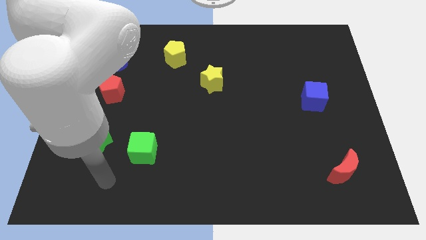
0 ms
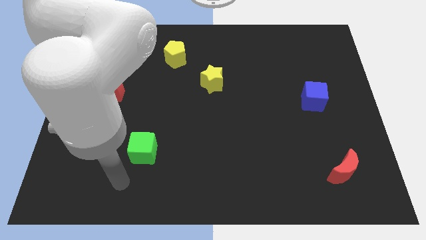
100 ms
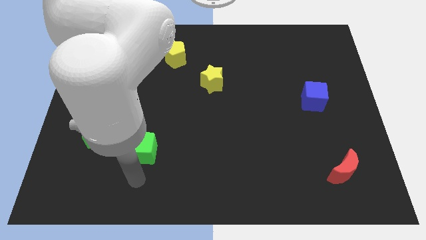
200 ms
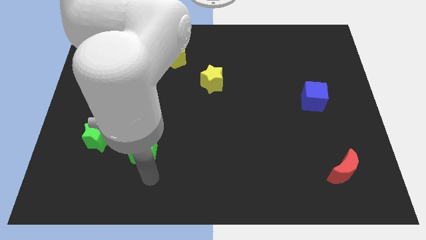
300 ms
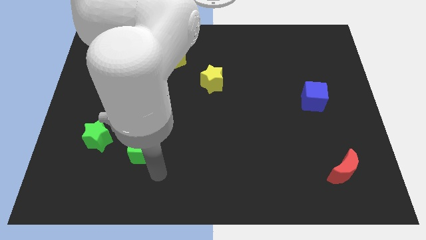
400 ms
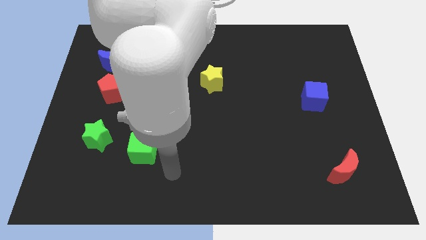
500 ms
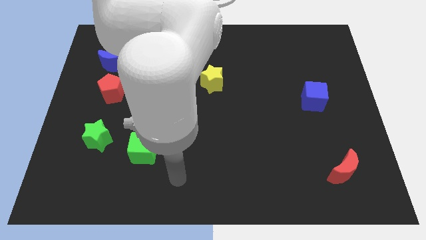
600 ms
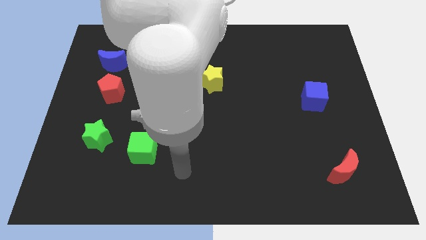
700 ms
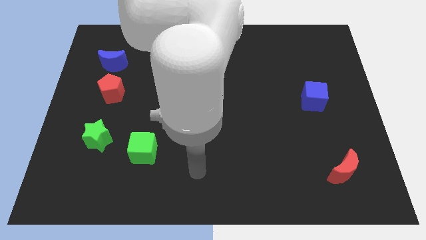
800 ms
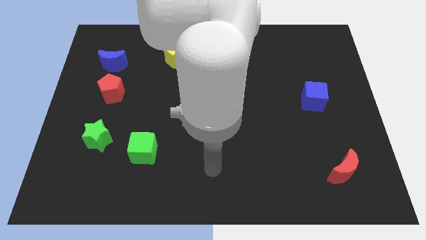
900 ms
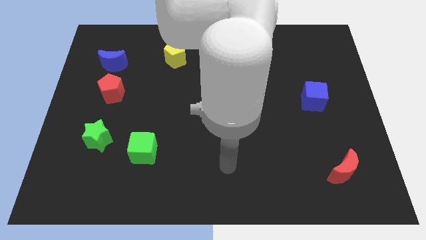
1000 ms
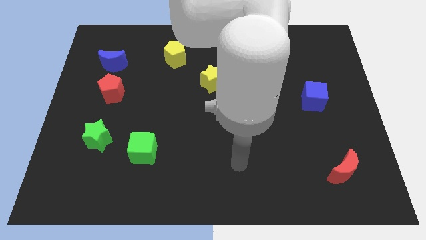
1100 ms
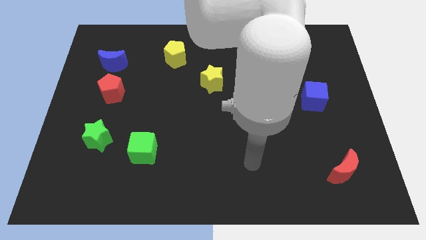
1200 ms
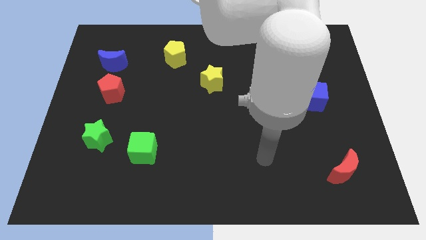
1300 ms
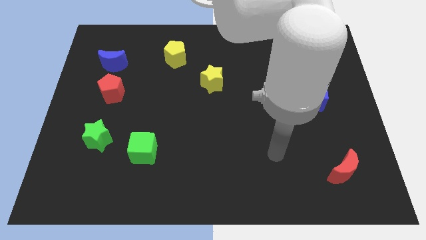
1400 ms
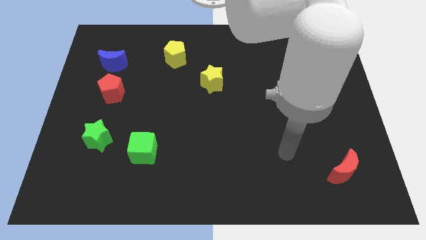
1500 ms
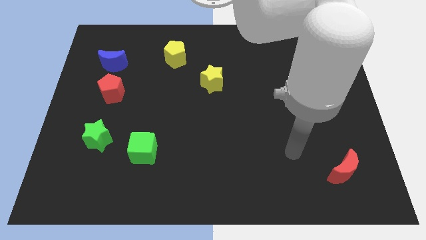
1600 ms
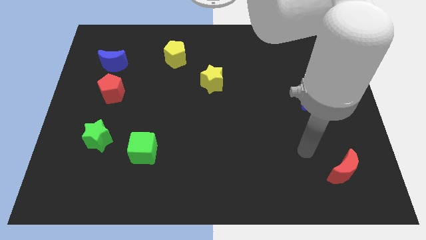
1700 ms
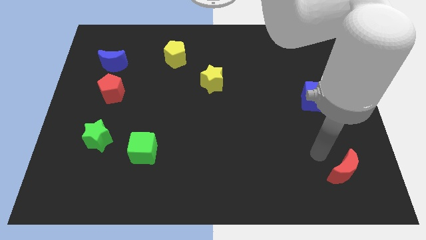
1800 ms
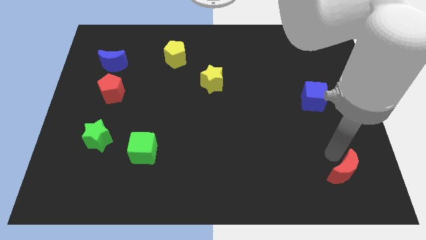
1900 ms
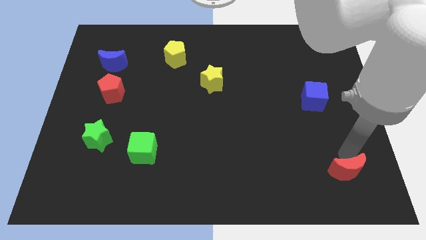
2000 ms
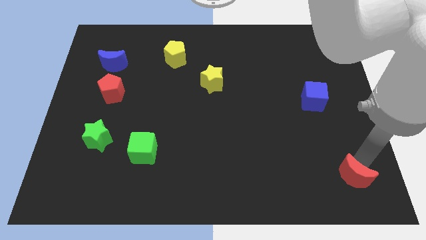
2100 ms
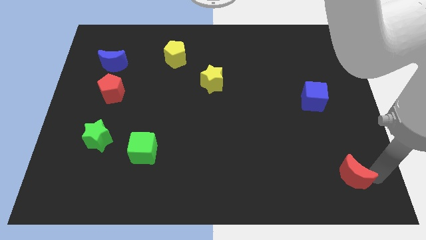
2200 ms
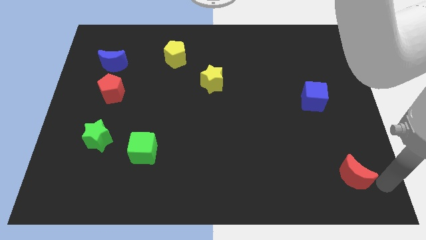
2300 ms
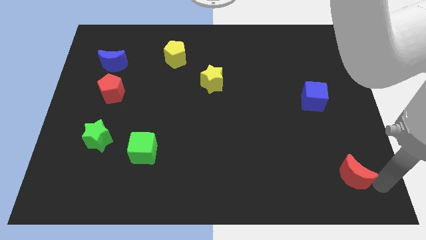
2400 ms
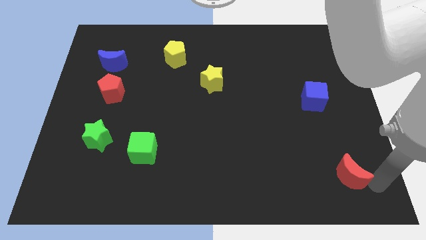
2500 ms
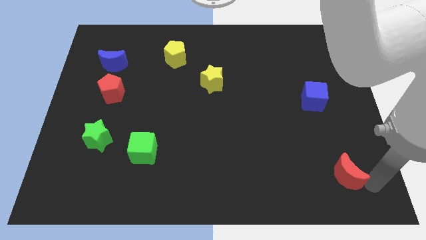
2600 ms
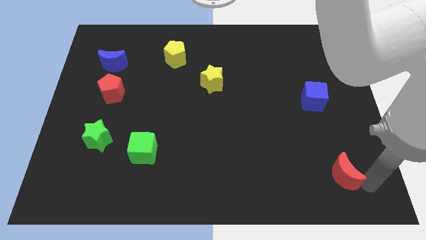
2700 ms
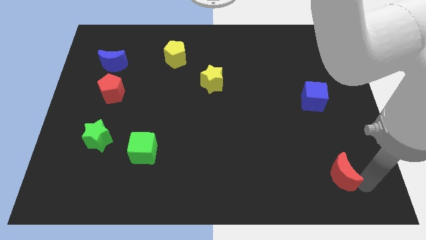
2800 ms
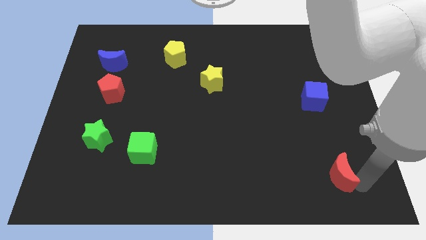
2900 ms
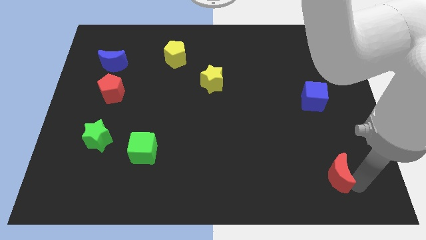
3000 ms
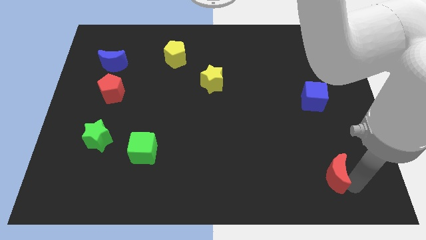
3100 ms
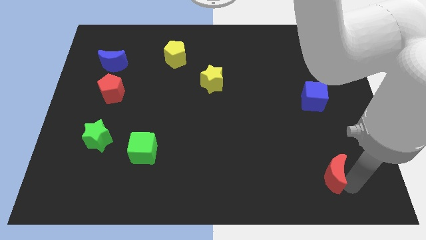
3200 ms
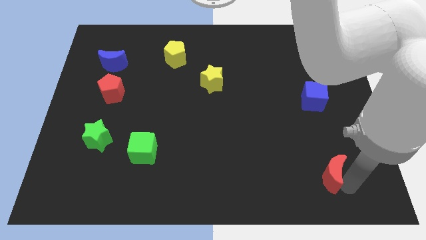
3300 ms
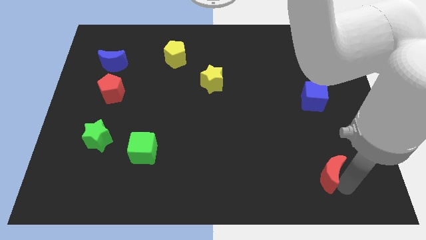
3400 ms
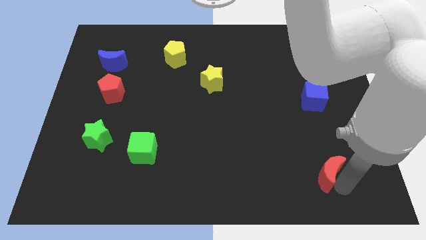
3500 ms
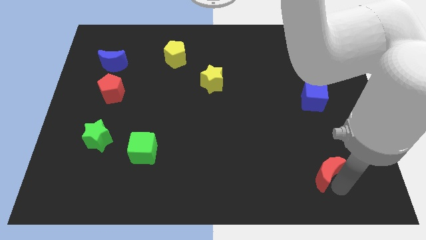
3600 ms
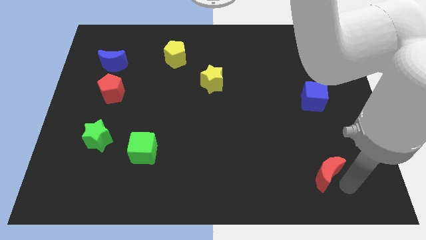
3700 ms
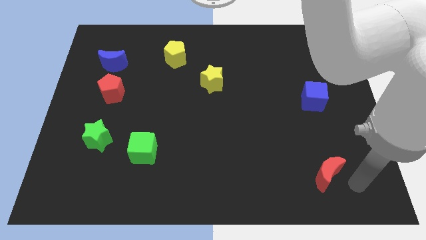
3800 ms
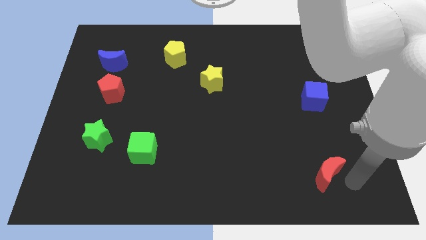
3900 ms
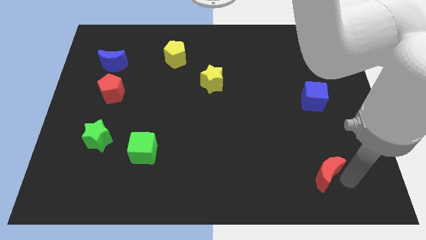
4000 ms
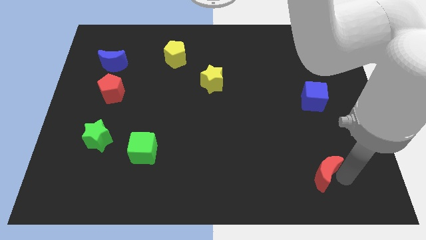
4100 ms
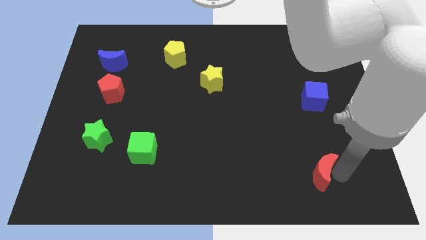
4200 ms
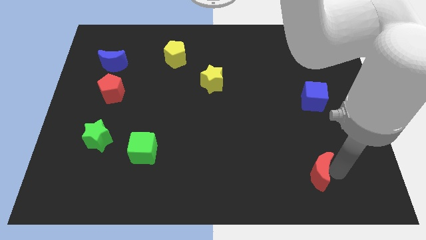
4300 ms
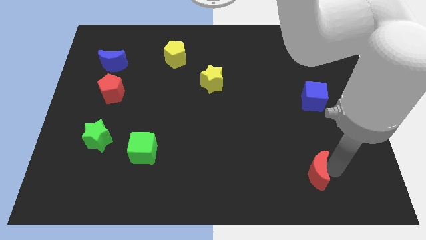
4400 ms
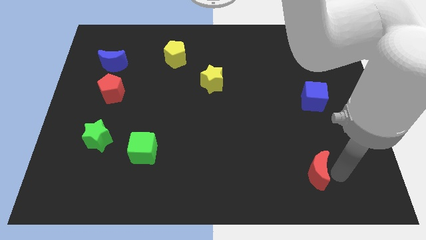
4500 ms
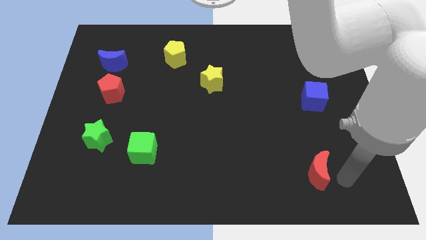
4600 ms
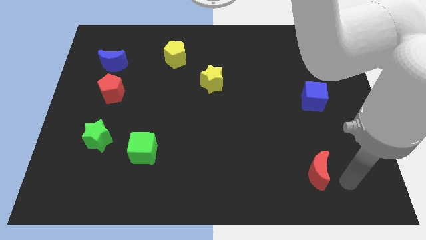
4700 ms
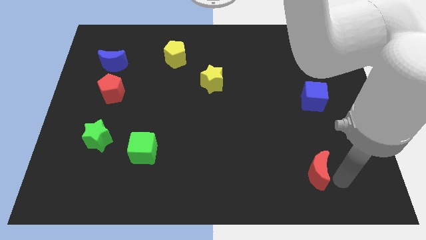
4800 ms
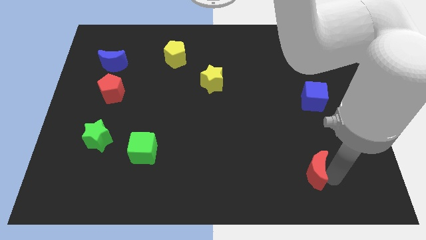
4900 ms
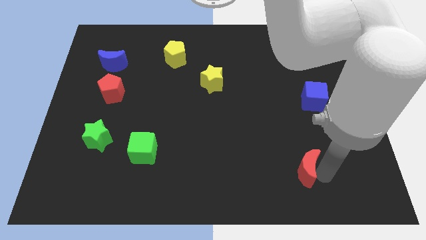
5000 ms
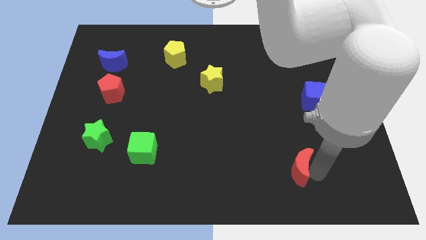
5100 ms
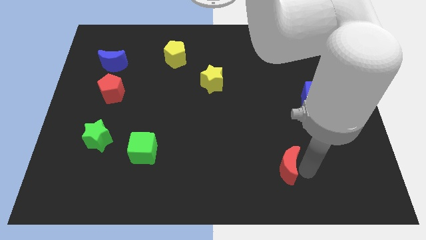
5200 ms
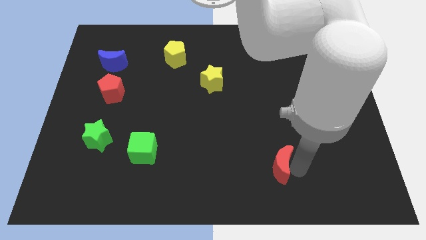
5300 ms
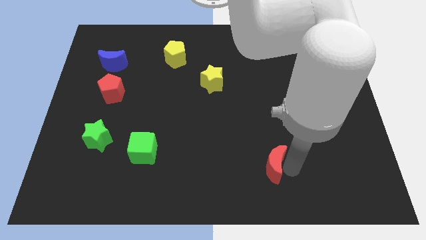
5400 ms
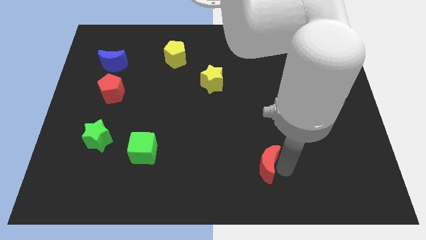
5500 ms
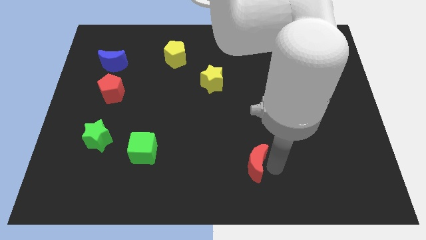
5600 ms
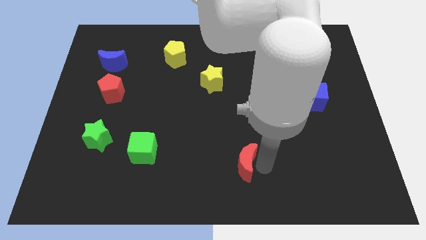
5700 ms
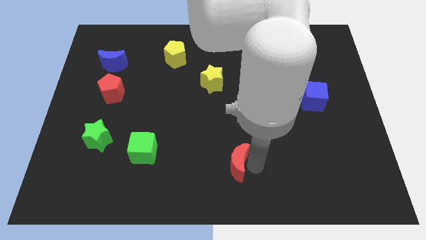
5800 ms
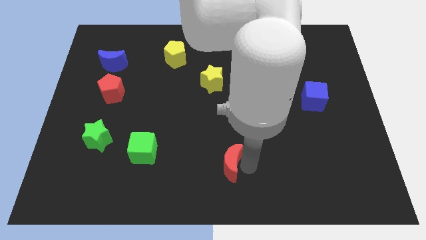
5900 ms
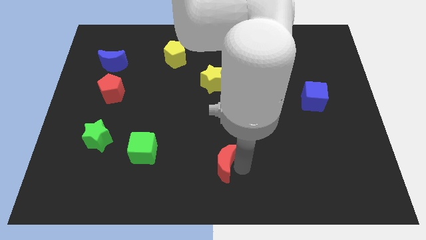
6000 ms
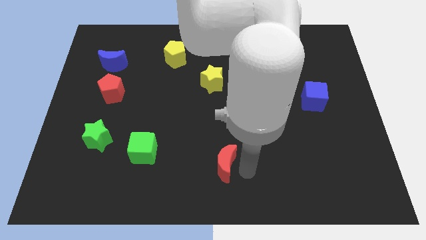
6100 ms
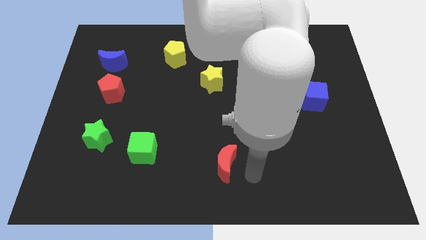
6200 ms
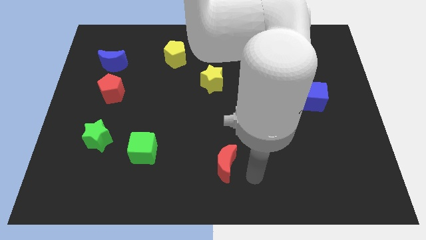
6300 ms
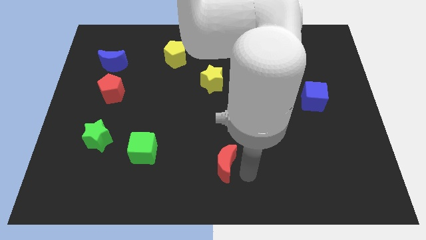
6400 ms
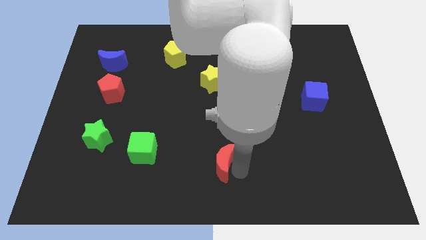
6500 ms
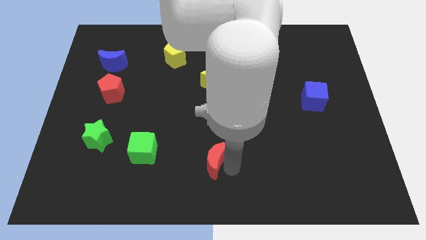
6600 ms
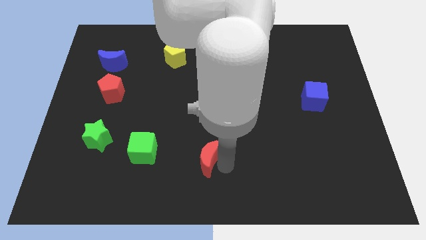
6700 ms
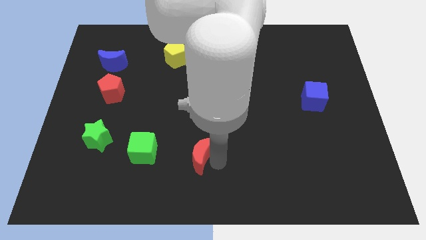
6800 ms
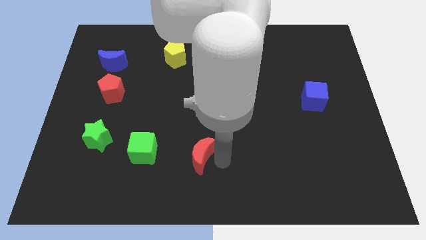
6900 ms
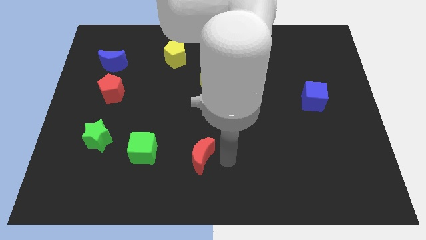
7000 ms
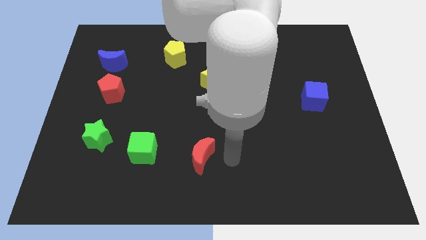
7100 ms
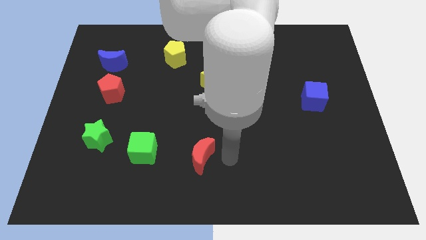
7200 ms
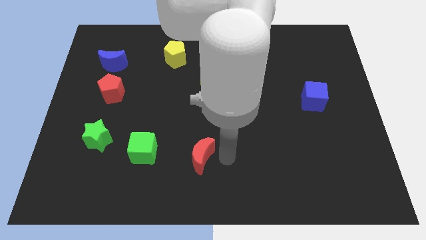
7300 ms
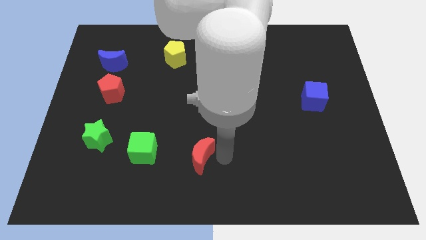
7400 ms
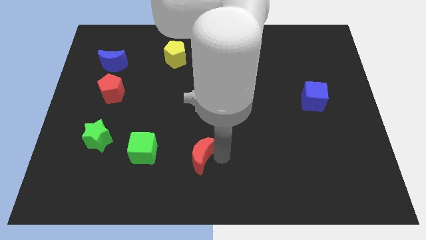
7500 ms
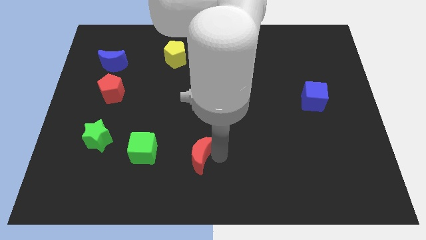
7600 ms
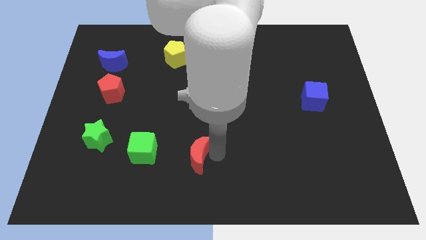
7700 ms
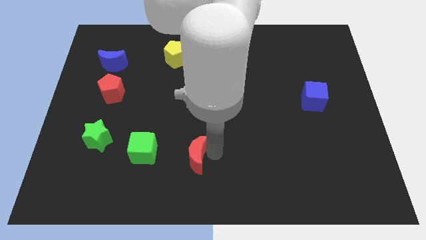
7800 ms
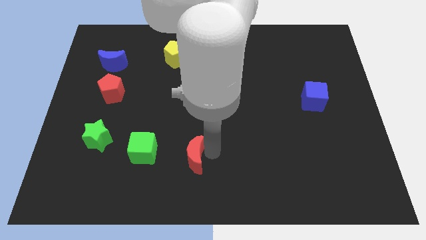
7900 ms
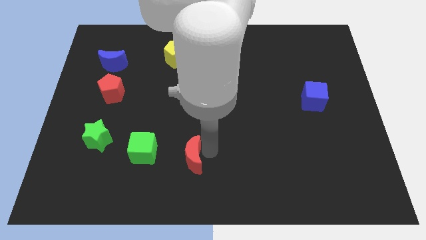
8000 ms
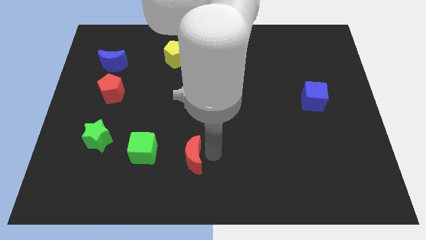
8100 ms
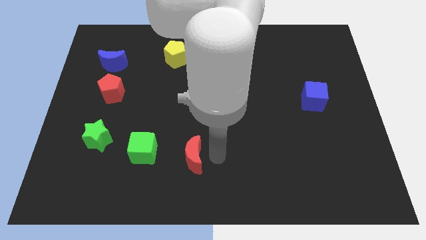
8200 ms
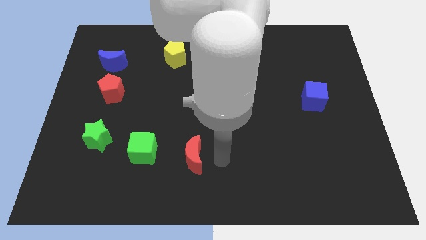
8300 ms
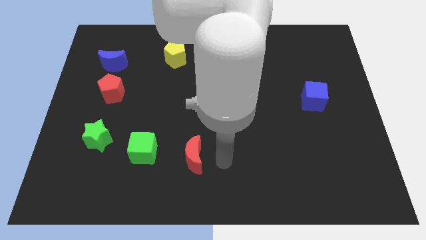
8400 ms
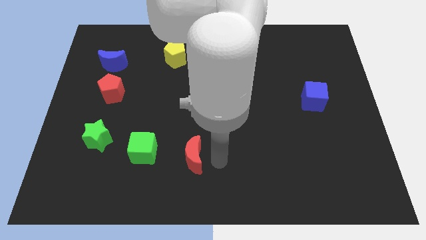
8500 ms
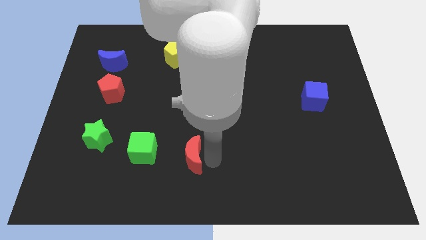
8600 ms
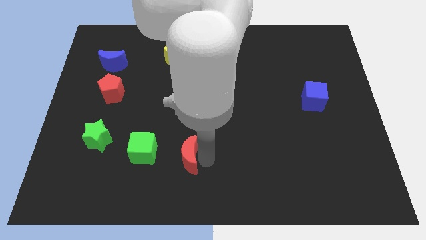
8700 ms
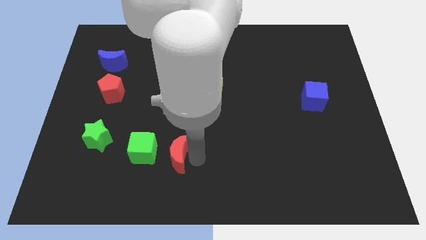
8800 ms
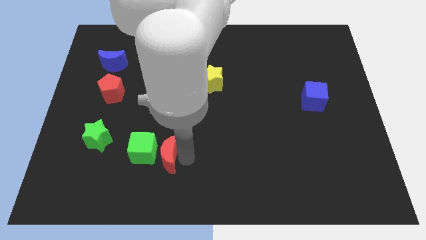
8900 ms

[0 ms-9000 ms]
push the red moon towards the green cube
